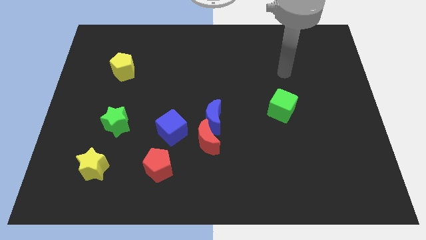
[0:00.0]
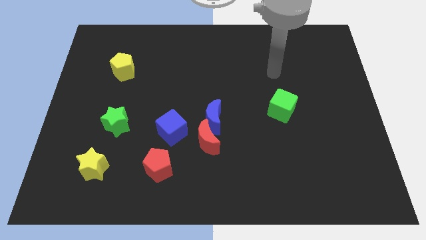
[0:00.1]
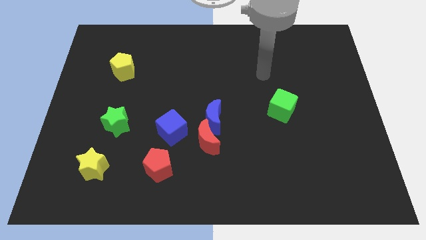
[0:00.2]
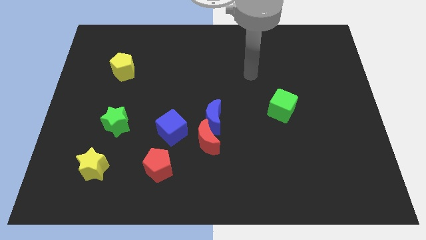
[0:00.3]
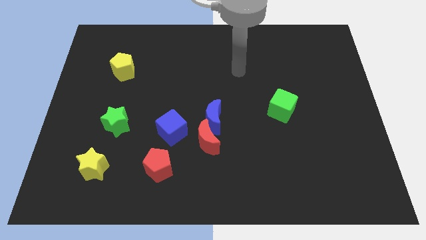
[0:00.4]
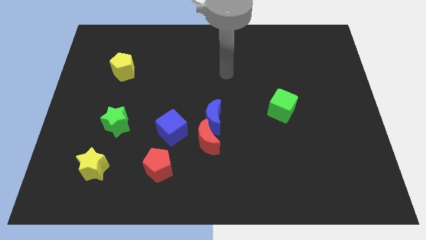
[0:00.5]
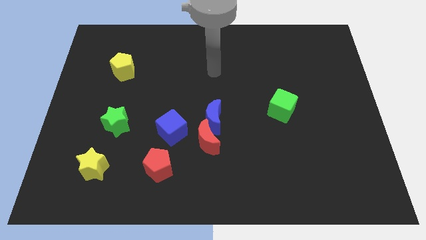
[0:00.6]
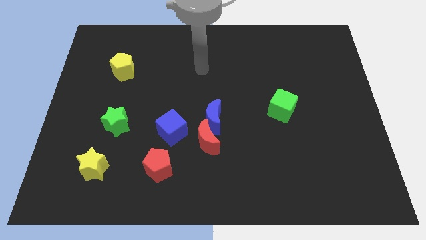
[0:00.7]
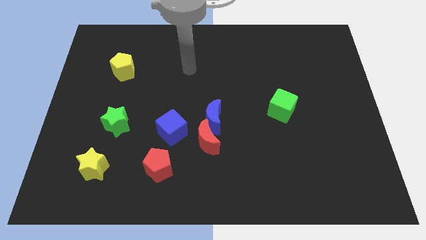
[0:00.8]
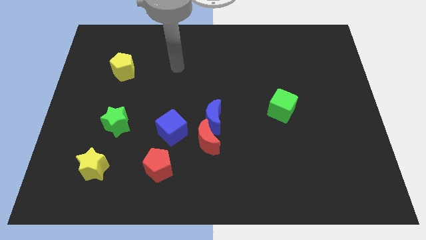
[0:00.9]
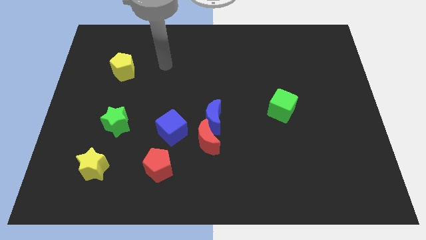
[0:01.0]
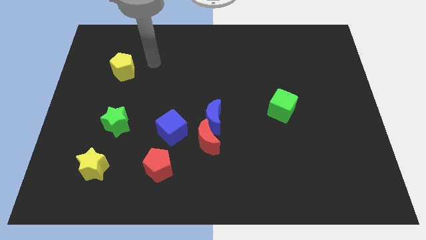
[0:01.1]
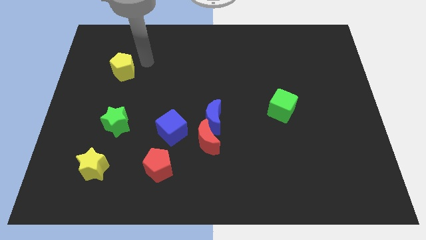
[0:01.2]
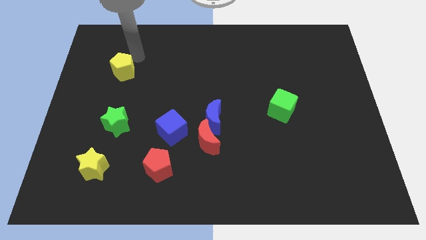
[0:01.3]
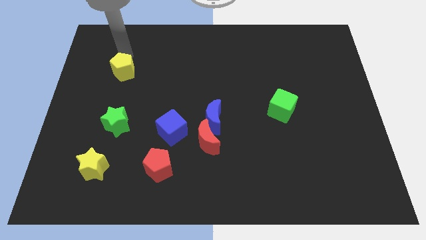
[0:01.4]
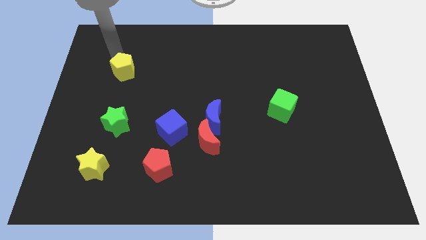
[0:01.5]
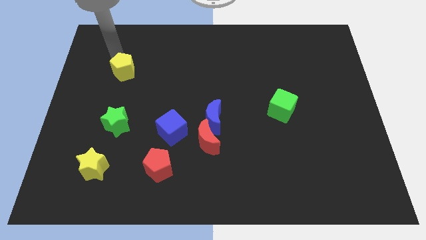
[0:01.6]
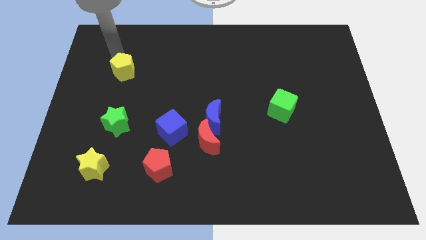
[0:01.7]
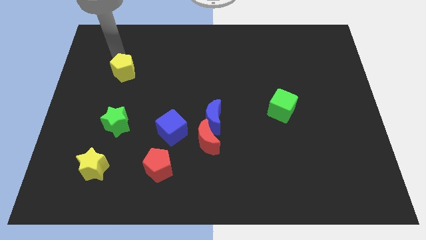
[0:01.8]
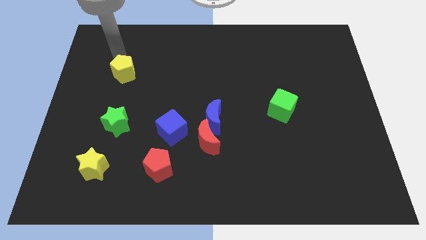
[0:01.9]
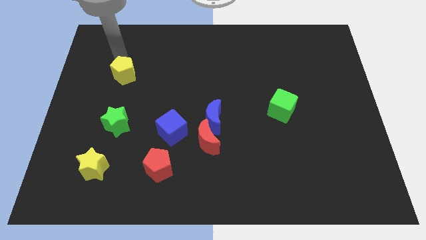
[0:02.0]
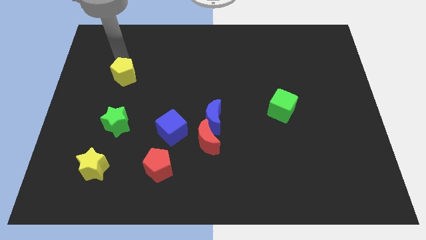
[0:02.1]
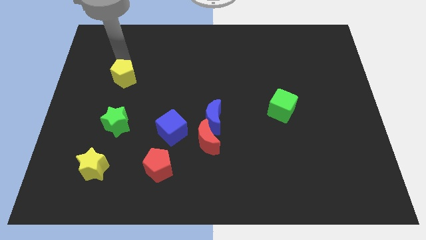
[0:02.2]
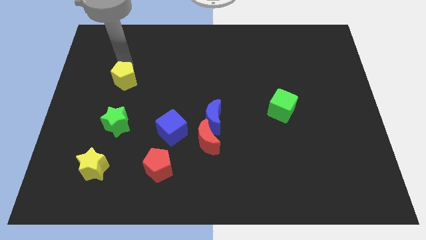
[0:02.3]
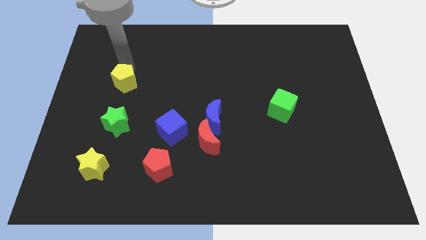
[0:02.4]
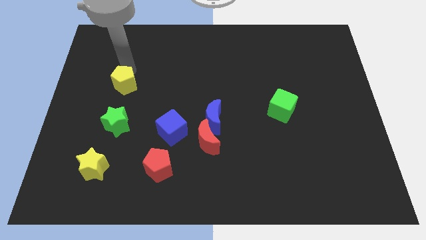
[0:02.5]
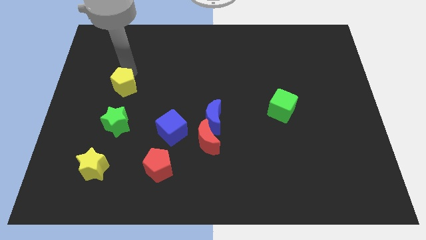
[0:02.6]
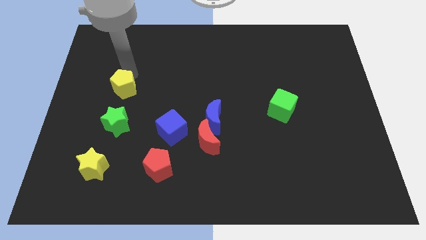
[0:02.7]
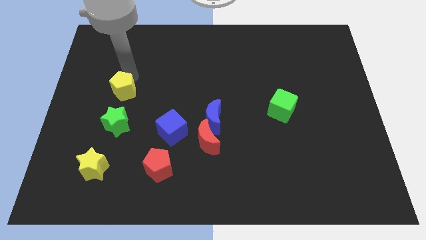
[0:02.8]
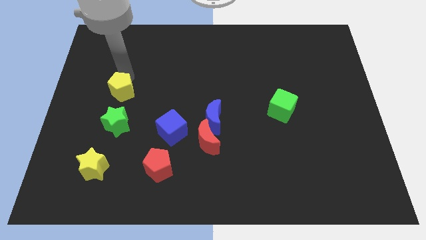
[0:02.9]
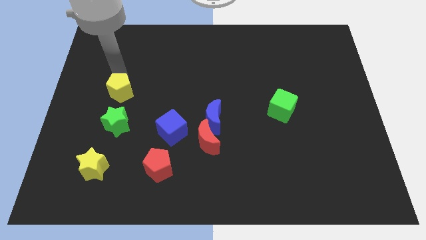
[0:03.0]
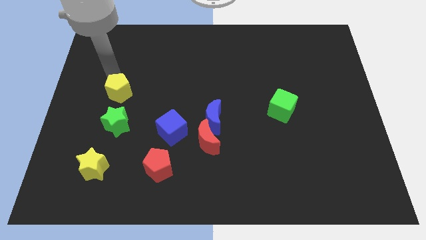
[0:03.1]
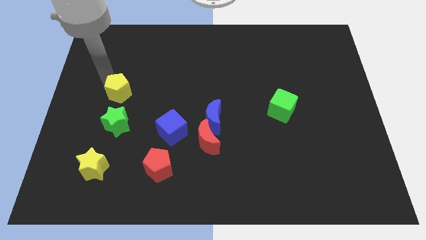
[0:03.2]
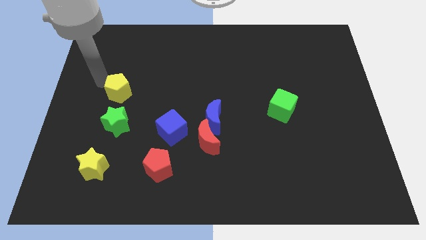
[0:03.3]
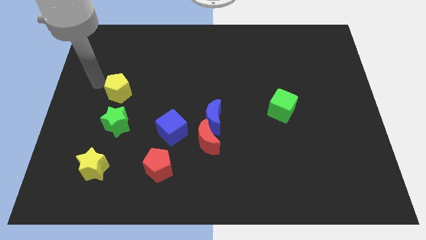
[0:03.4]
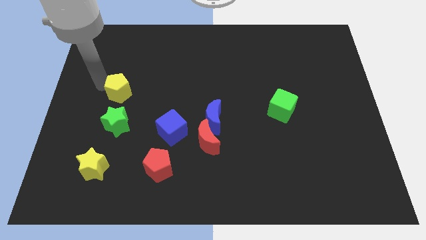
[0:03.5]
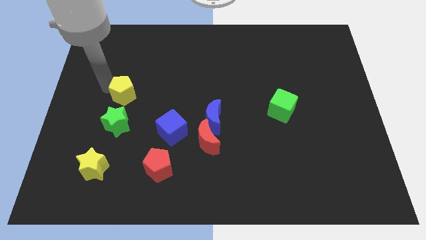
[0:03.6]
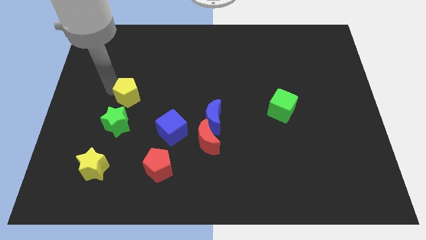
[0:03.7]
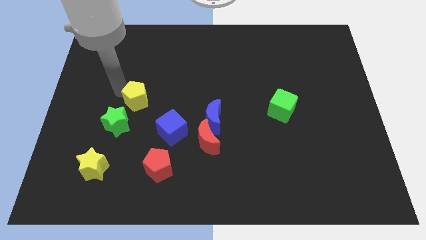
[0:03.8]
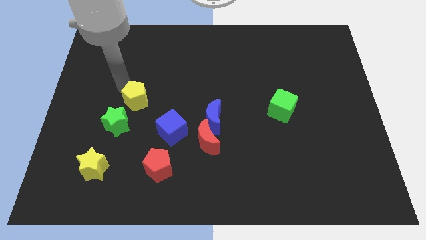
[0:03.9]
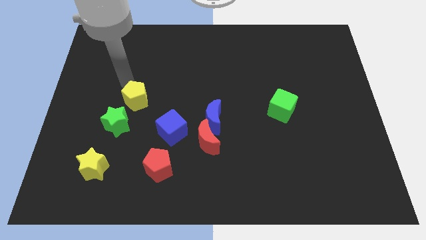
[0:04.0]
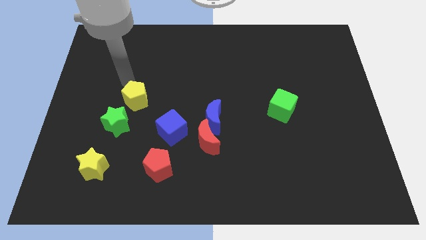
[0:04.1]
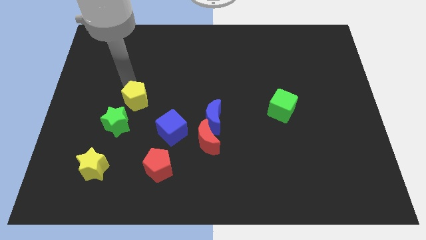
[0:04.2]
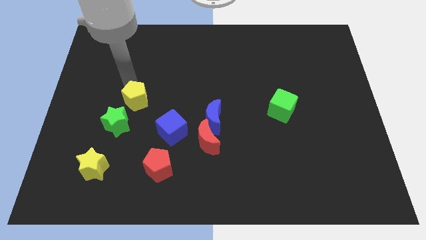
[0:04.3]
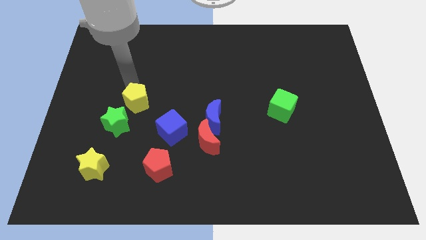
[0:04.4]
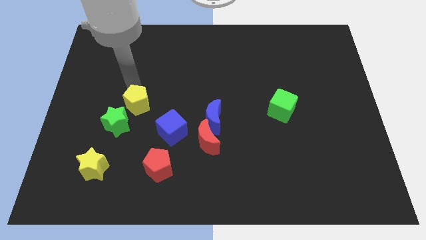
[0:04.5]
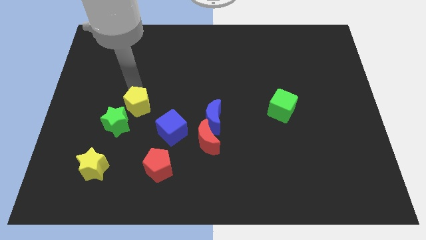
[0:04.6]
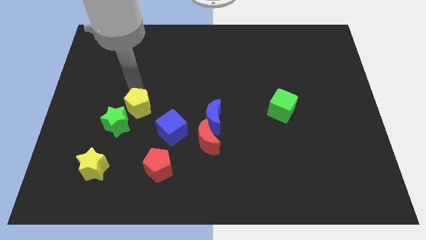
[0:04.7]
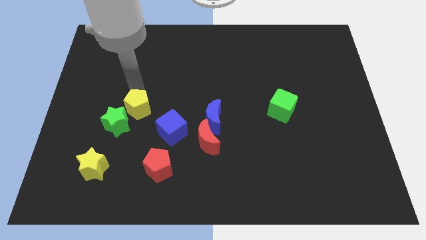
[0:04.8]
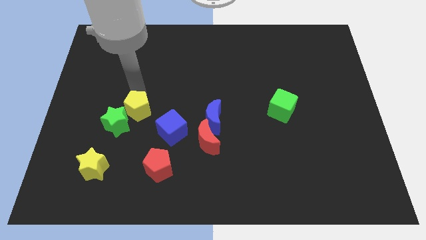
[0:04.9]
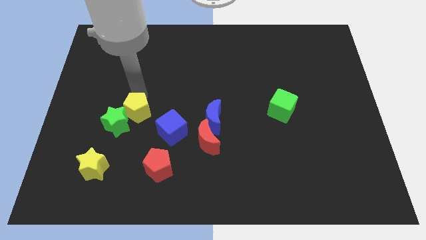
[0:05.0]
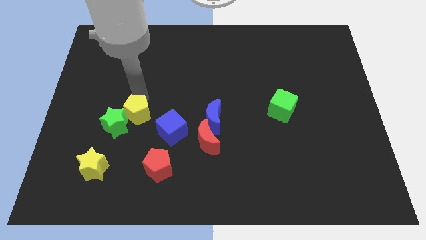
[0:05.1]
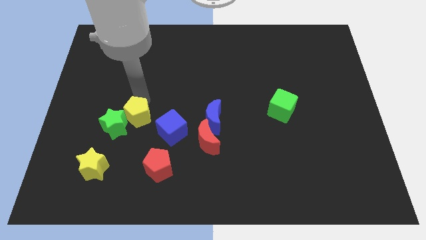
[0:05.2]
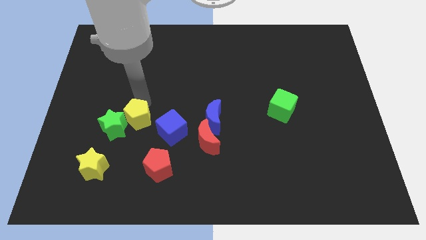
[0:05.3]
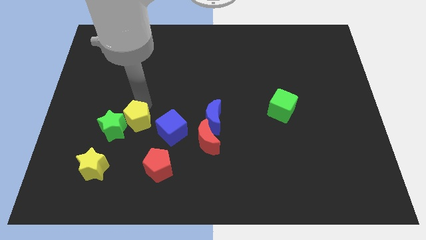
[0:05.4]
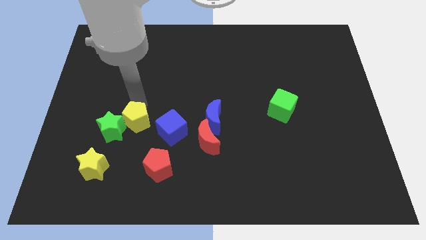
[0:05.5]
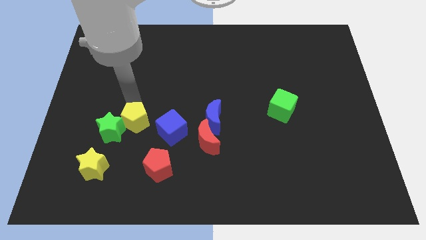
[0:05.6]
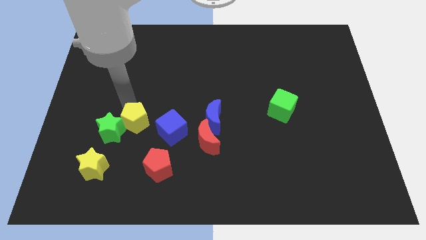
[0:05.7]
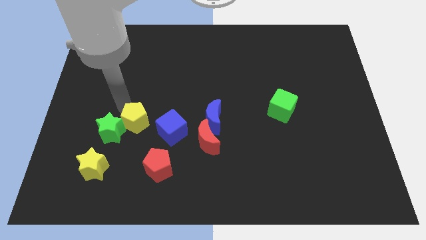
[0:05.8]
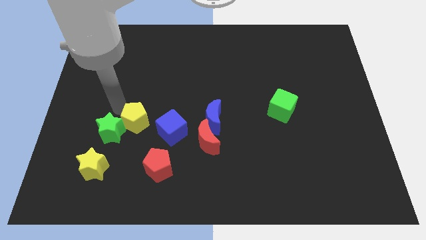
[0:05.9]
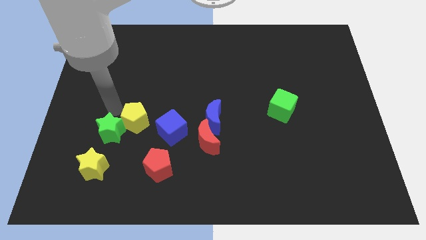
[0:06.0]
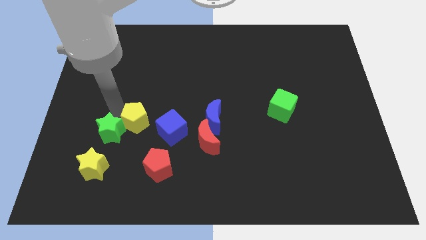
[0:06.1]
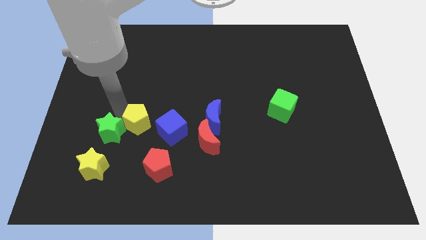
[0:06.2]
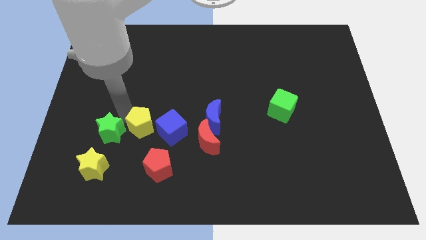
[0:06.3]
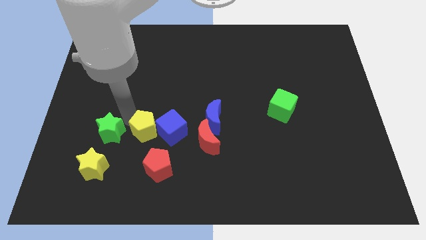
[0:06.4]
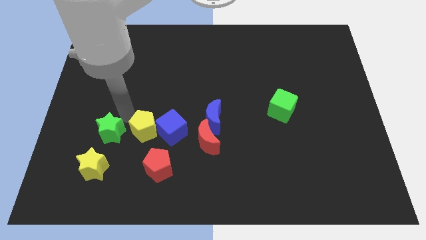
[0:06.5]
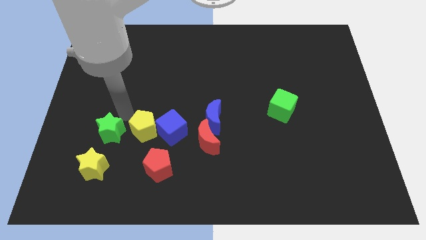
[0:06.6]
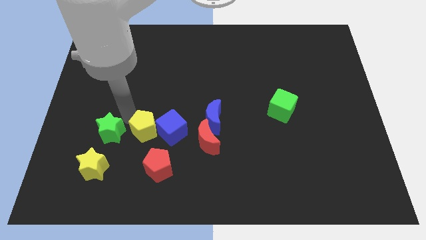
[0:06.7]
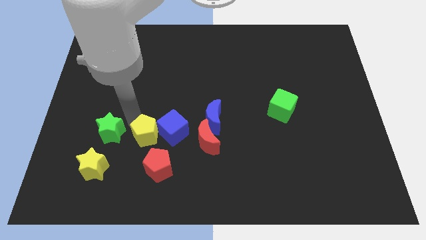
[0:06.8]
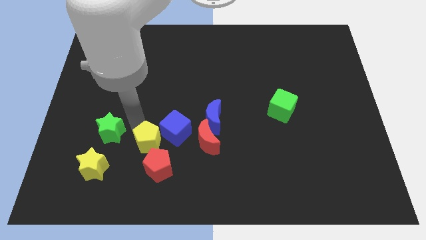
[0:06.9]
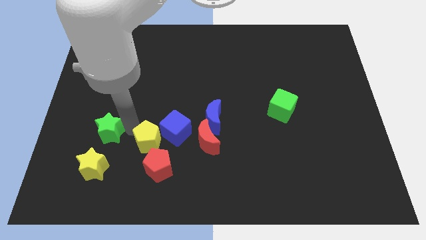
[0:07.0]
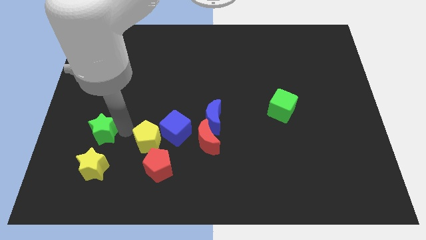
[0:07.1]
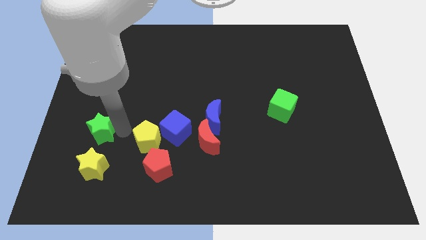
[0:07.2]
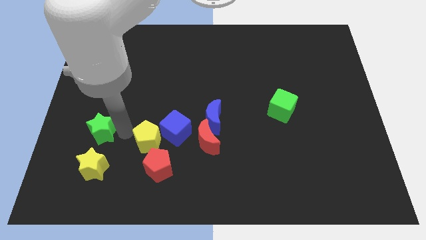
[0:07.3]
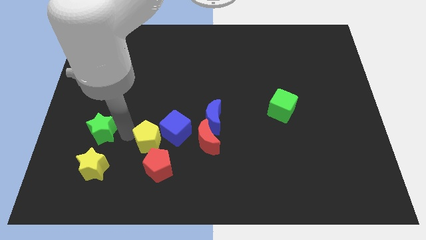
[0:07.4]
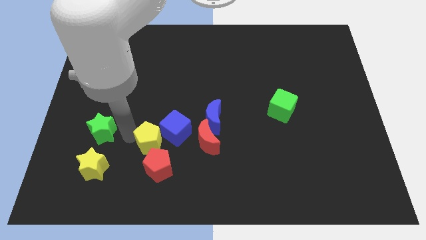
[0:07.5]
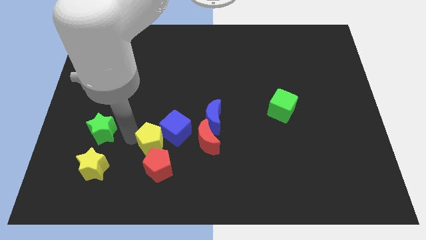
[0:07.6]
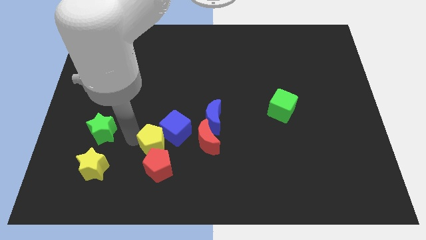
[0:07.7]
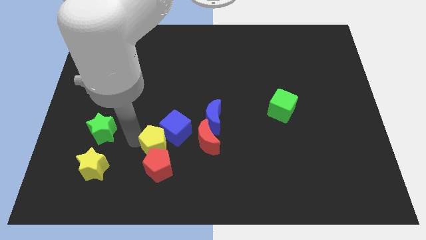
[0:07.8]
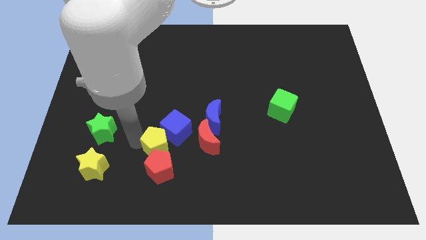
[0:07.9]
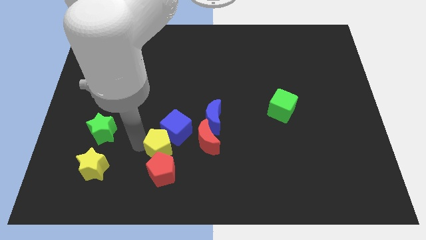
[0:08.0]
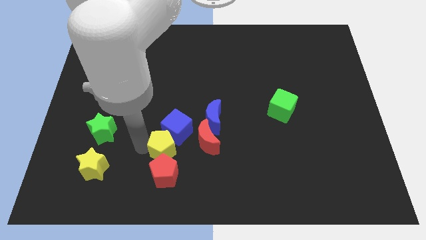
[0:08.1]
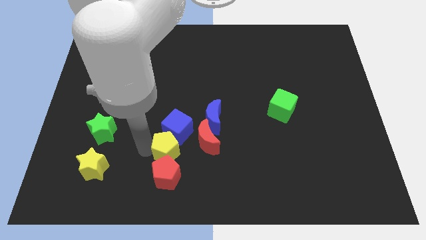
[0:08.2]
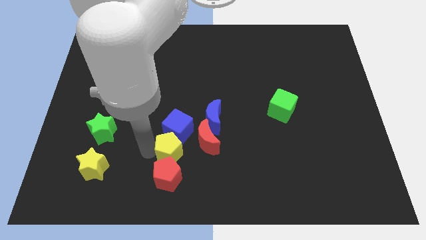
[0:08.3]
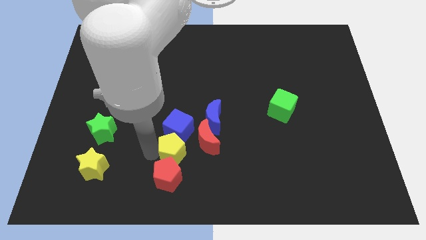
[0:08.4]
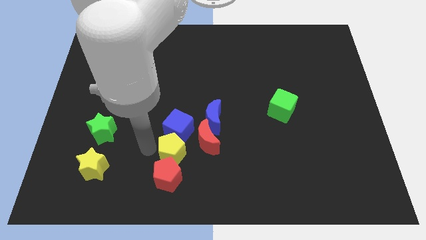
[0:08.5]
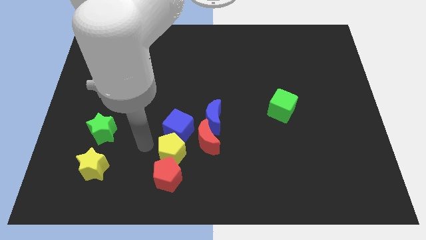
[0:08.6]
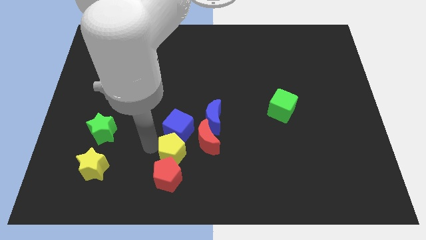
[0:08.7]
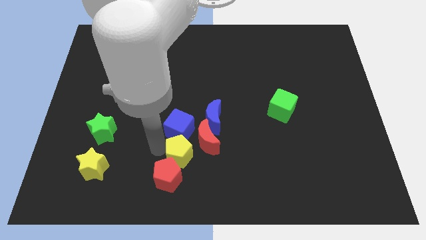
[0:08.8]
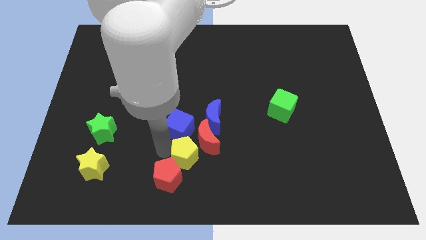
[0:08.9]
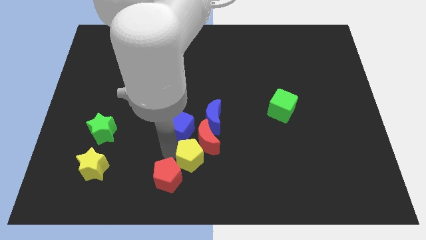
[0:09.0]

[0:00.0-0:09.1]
slide the yellow pentagon to the bottom

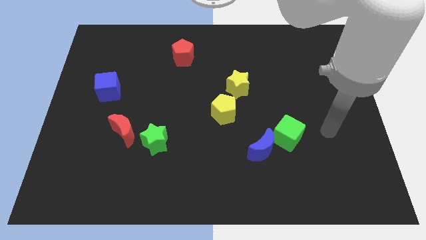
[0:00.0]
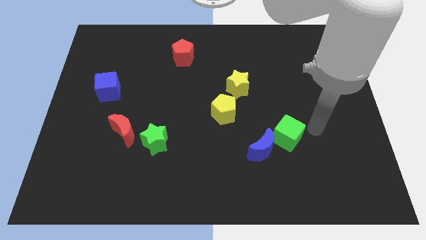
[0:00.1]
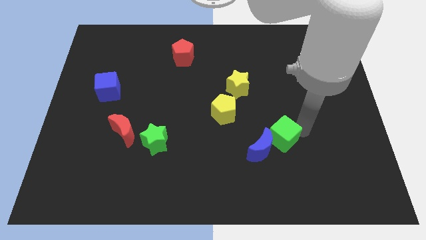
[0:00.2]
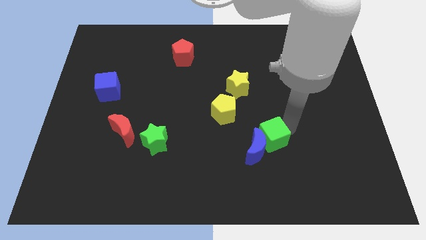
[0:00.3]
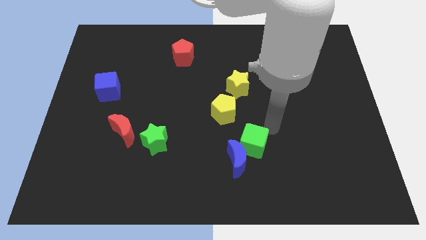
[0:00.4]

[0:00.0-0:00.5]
move the blue moon to the bottom
